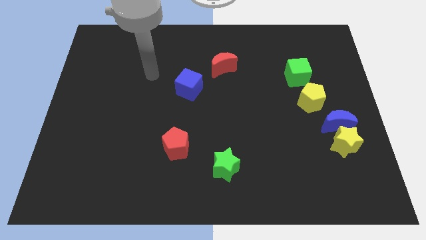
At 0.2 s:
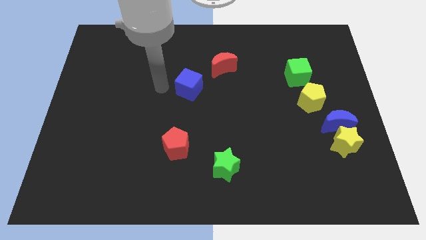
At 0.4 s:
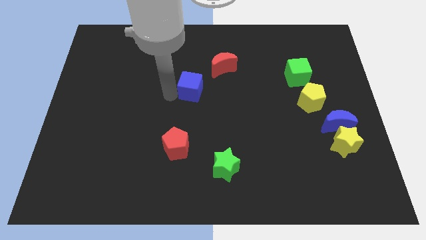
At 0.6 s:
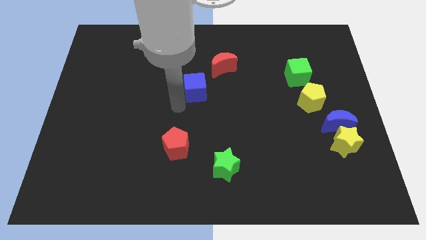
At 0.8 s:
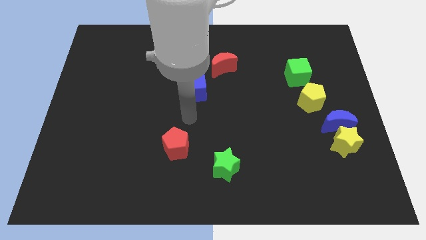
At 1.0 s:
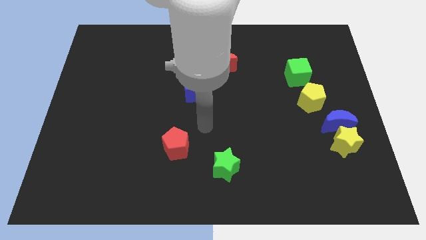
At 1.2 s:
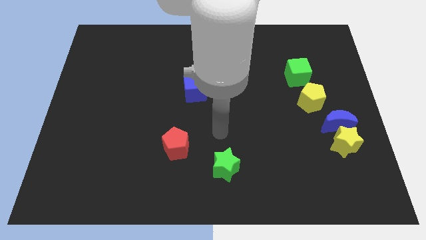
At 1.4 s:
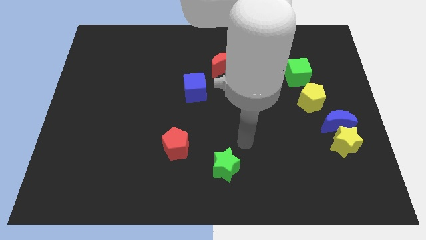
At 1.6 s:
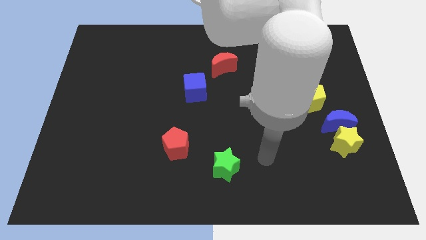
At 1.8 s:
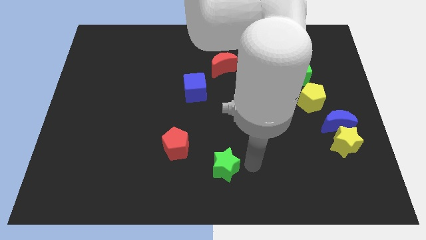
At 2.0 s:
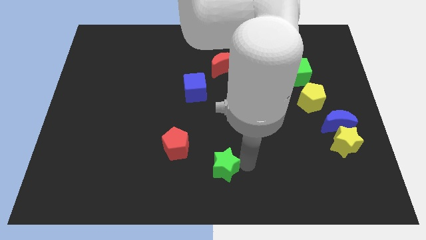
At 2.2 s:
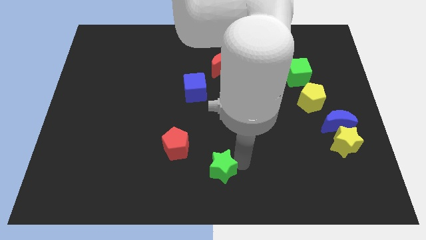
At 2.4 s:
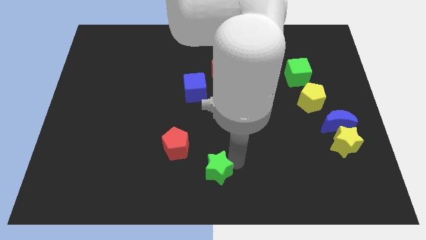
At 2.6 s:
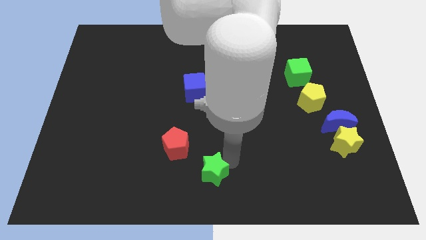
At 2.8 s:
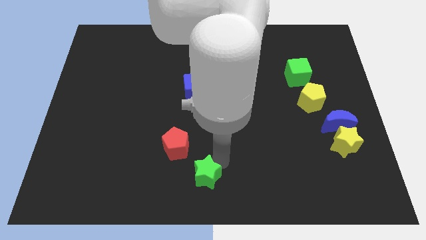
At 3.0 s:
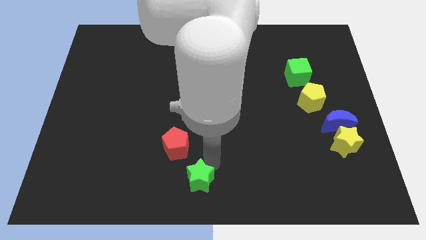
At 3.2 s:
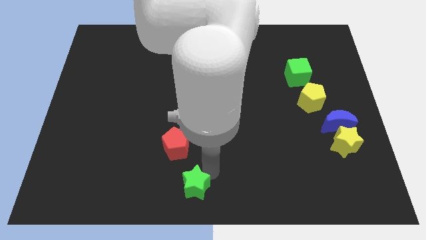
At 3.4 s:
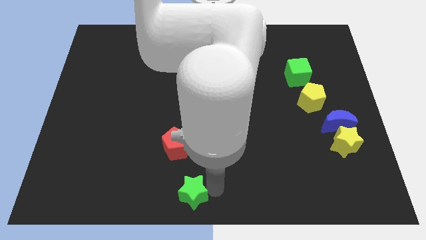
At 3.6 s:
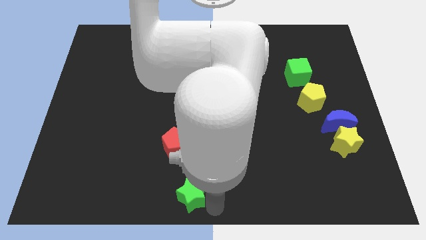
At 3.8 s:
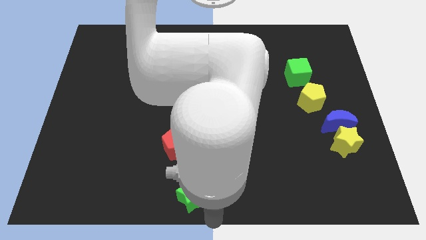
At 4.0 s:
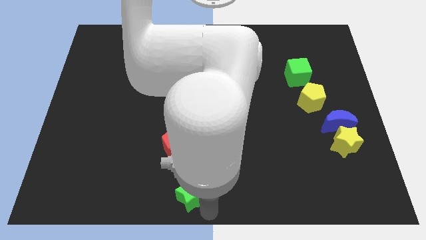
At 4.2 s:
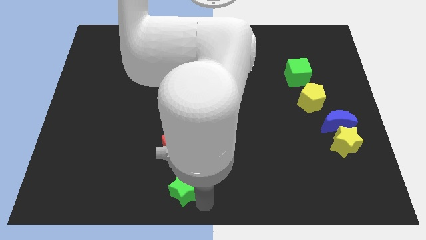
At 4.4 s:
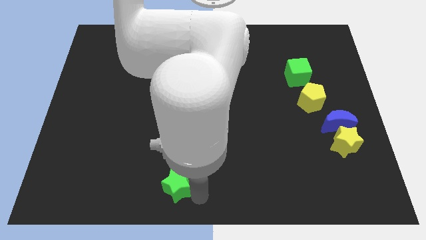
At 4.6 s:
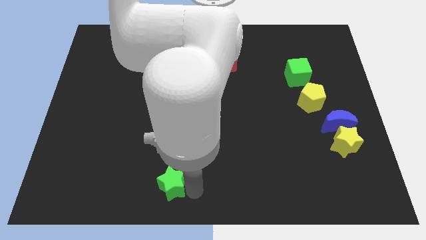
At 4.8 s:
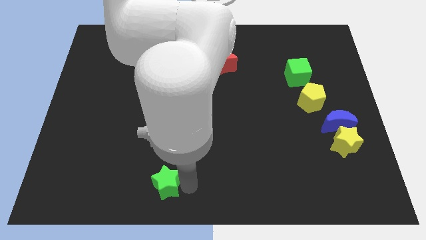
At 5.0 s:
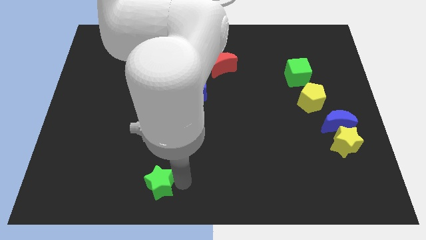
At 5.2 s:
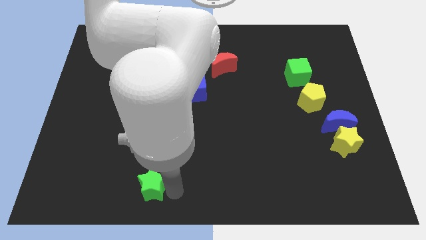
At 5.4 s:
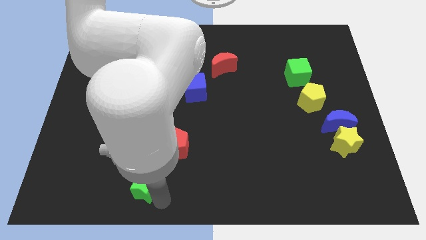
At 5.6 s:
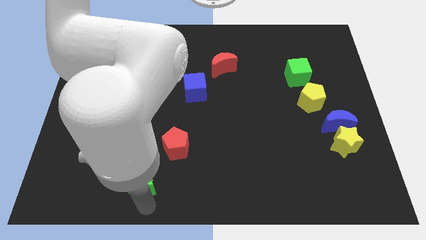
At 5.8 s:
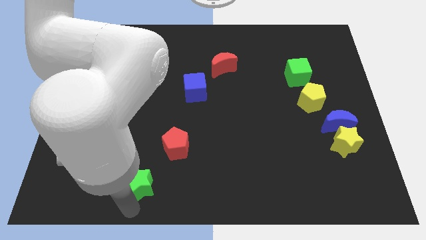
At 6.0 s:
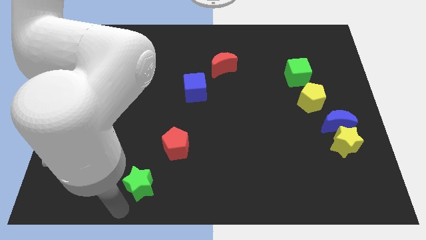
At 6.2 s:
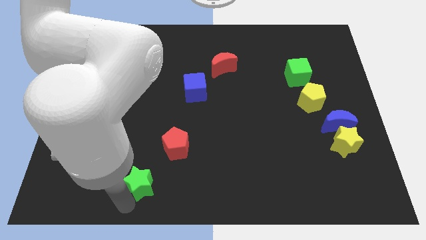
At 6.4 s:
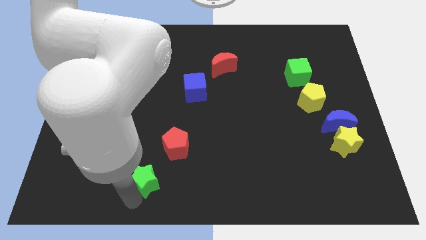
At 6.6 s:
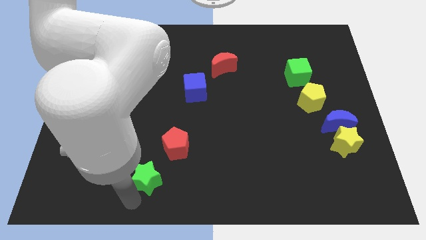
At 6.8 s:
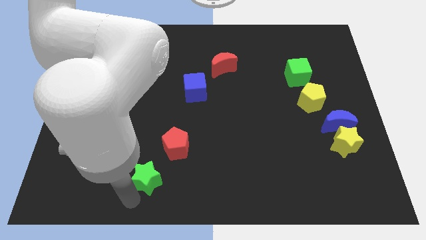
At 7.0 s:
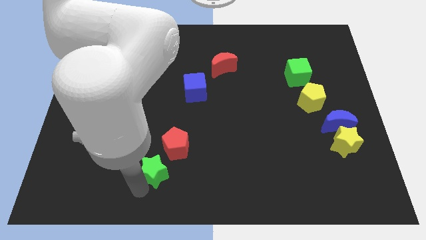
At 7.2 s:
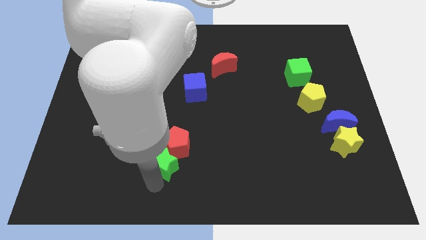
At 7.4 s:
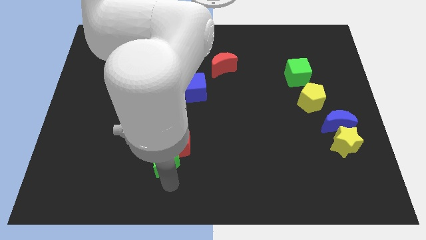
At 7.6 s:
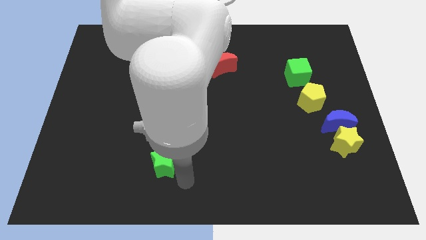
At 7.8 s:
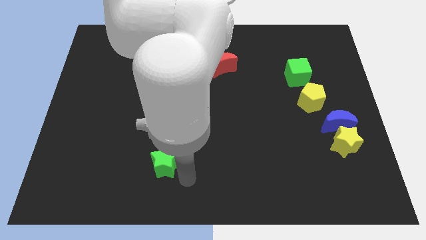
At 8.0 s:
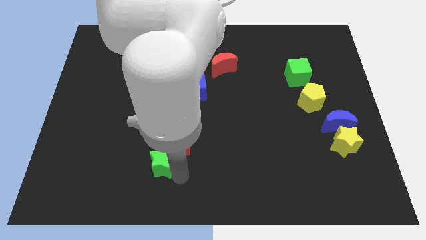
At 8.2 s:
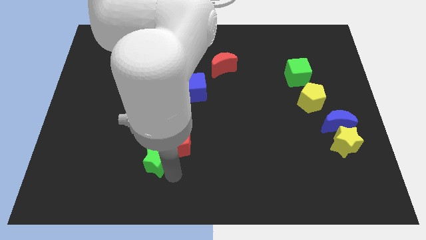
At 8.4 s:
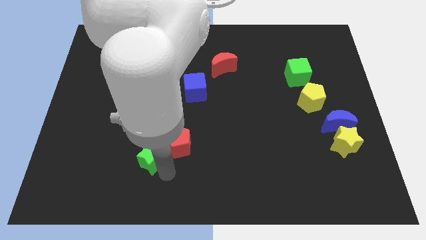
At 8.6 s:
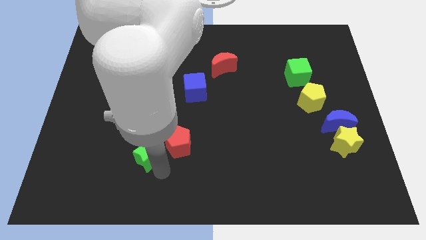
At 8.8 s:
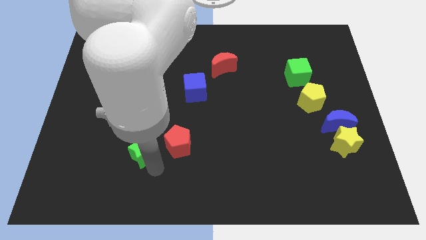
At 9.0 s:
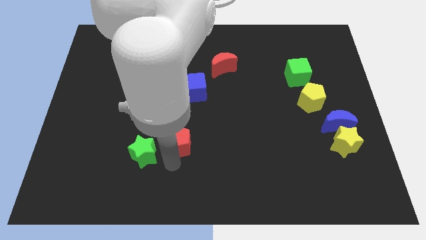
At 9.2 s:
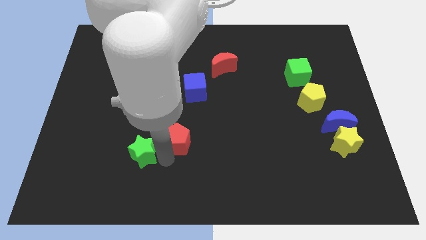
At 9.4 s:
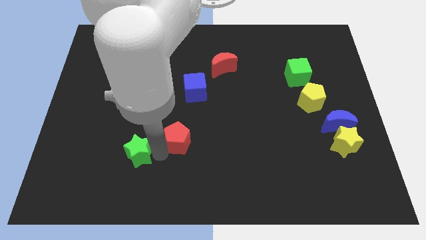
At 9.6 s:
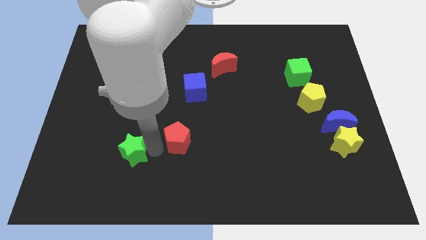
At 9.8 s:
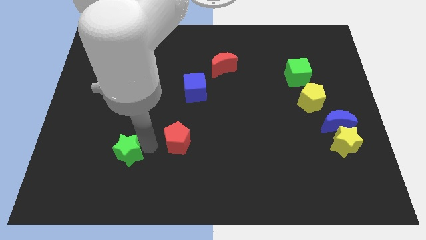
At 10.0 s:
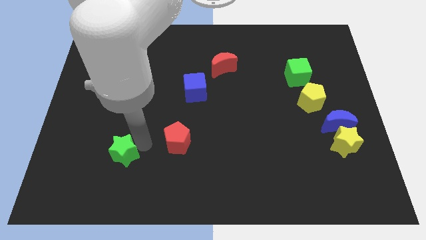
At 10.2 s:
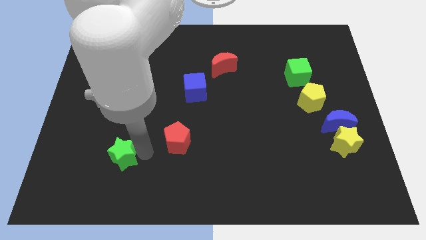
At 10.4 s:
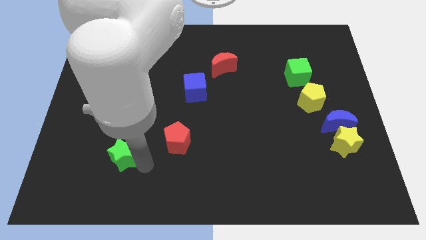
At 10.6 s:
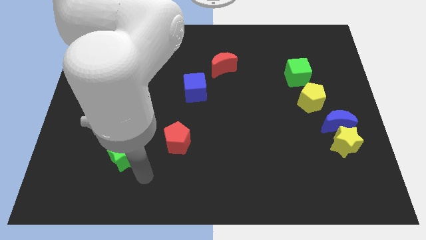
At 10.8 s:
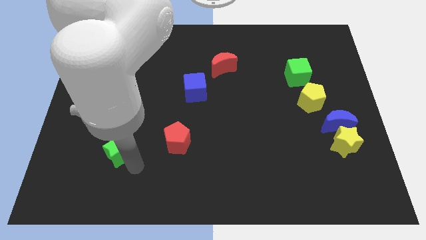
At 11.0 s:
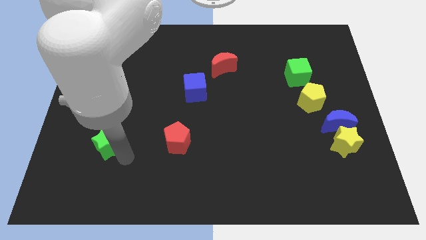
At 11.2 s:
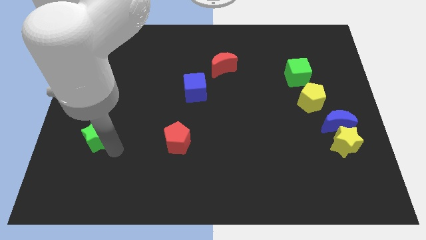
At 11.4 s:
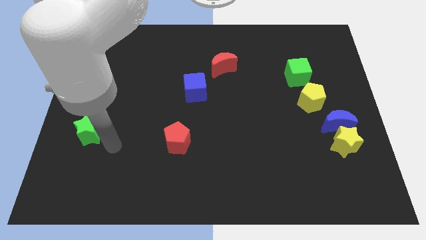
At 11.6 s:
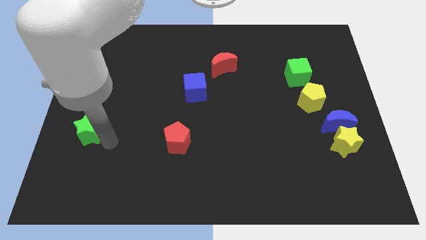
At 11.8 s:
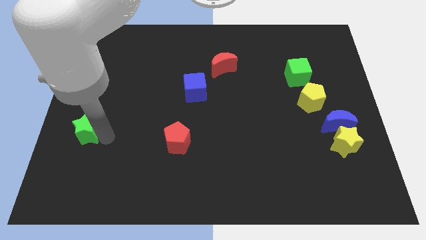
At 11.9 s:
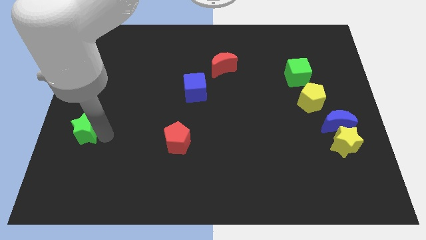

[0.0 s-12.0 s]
push the green star to the left side of the board
